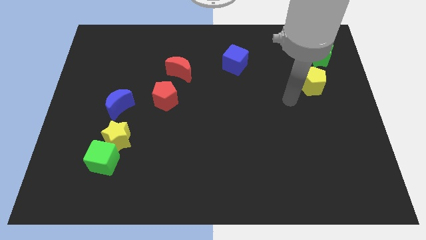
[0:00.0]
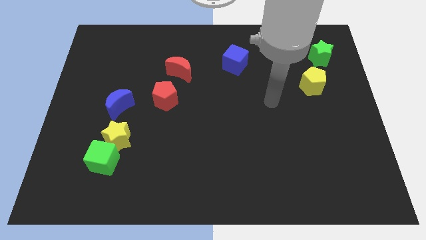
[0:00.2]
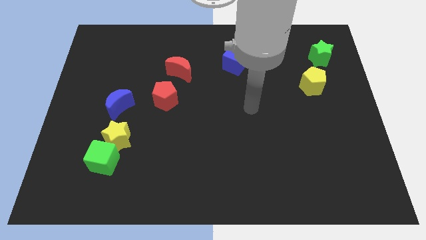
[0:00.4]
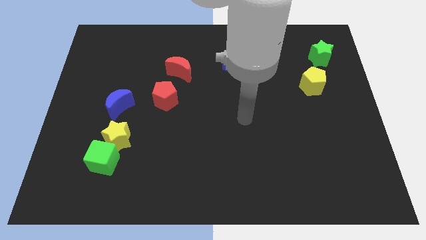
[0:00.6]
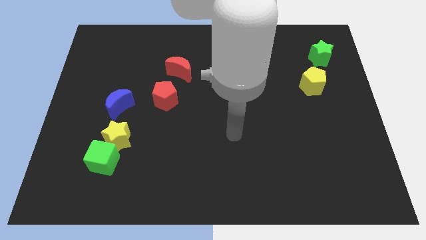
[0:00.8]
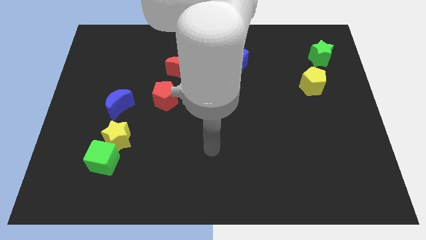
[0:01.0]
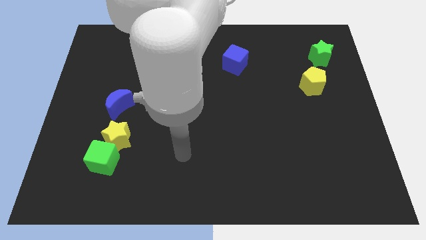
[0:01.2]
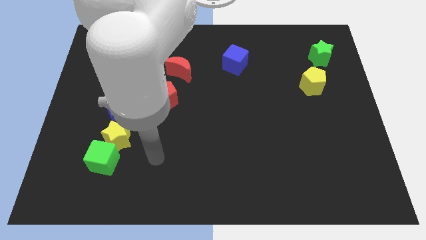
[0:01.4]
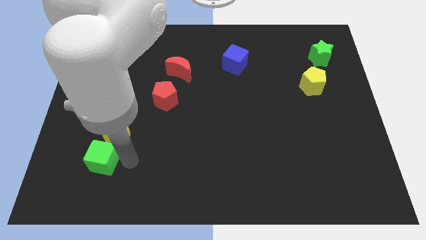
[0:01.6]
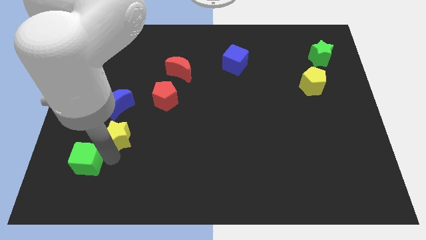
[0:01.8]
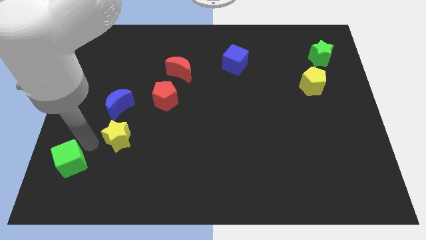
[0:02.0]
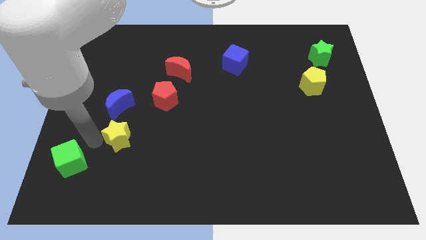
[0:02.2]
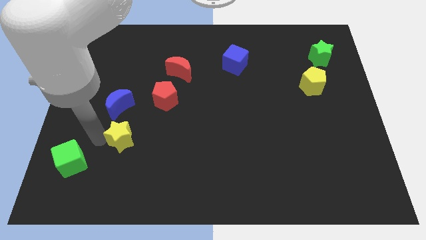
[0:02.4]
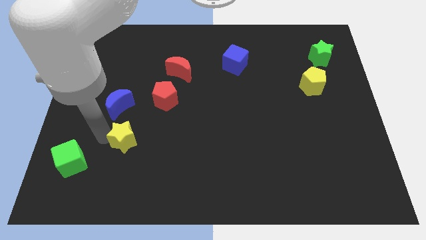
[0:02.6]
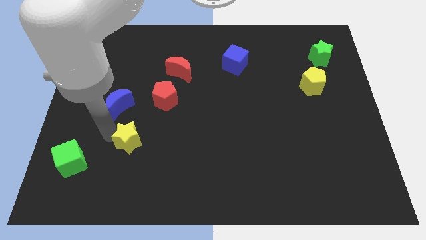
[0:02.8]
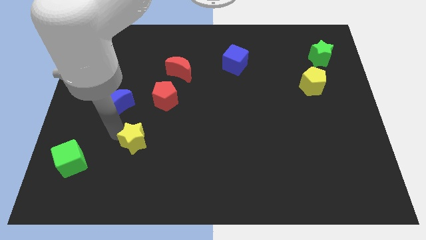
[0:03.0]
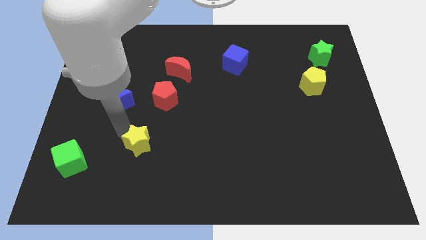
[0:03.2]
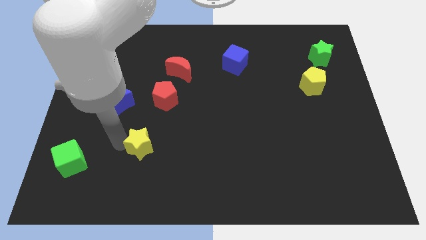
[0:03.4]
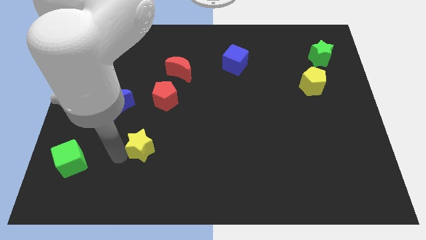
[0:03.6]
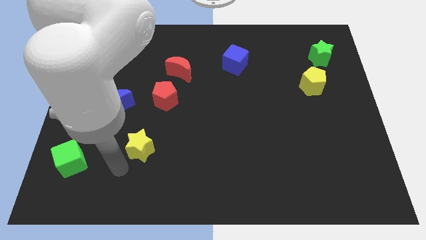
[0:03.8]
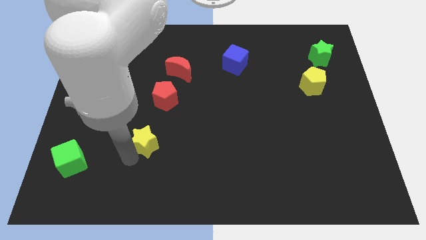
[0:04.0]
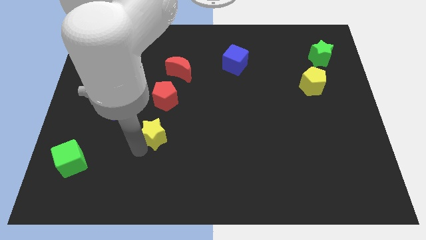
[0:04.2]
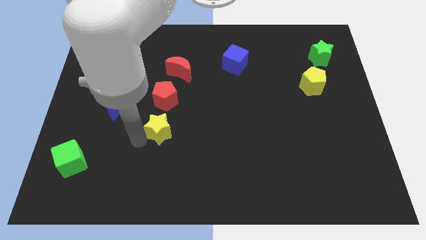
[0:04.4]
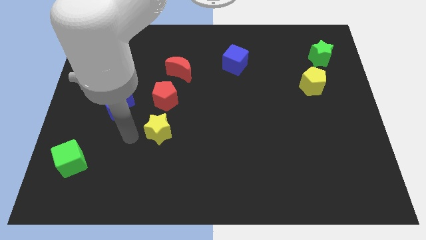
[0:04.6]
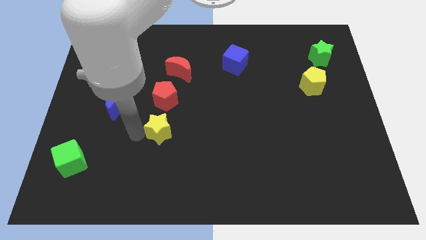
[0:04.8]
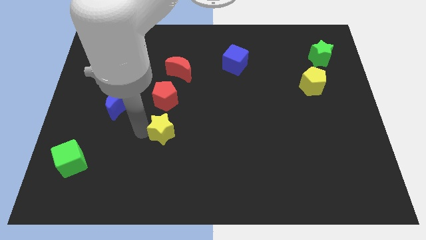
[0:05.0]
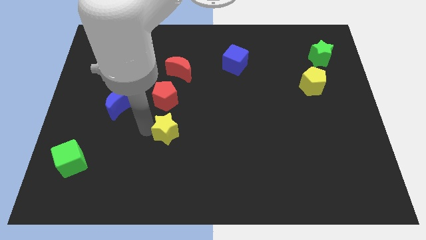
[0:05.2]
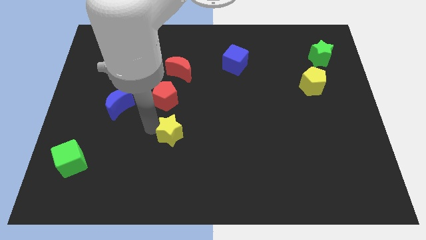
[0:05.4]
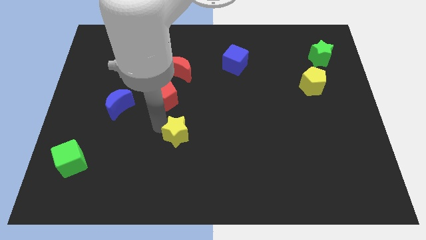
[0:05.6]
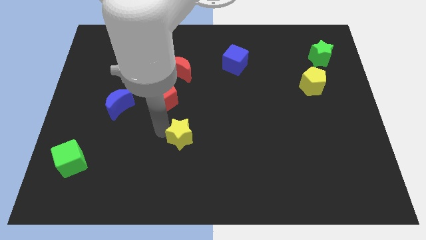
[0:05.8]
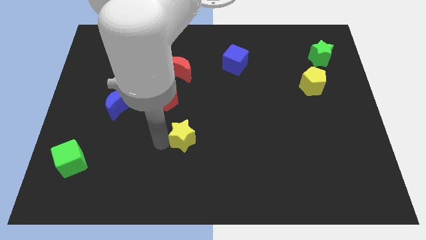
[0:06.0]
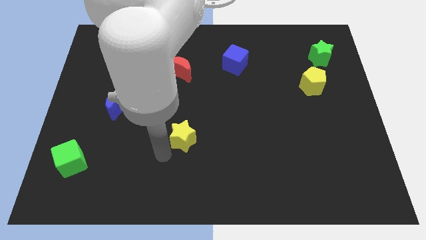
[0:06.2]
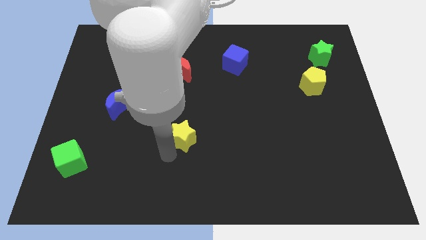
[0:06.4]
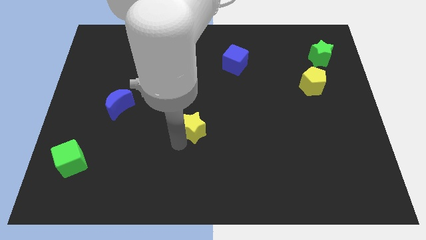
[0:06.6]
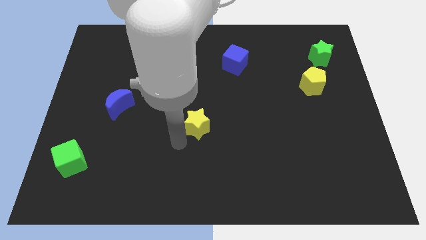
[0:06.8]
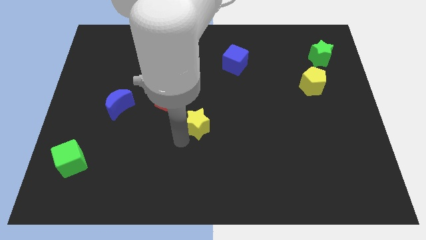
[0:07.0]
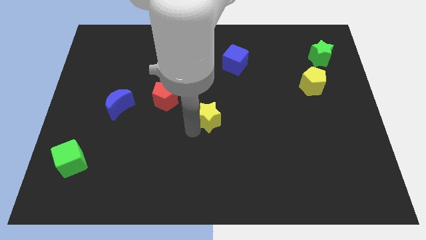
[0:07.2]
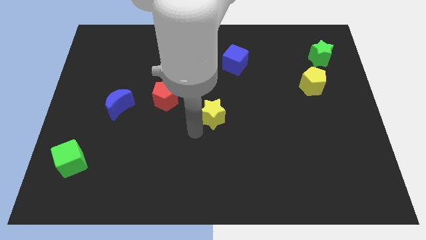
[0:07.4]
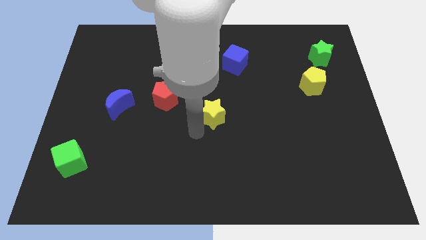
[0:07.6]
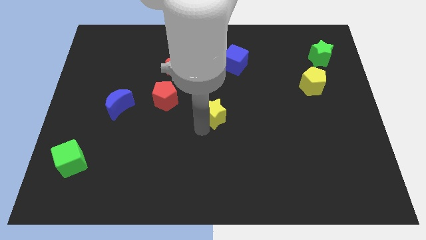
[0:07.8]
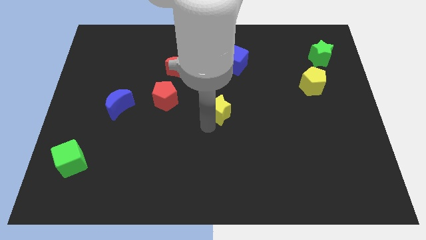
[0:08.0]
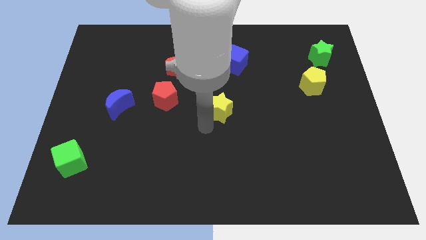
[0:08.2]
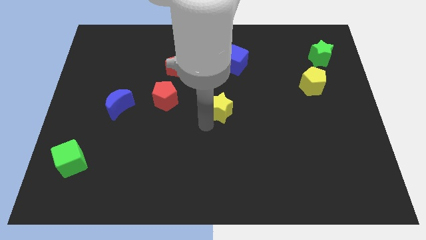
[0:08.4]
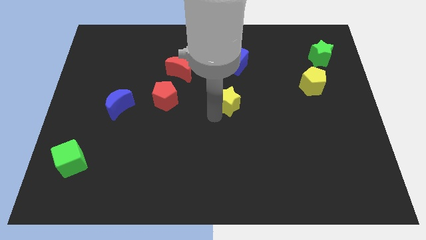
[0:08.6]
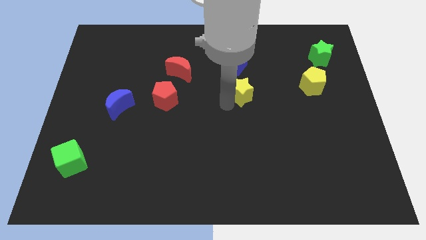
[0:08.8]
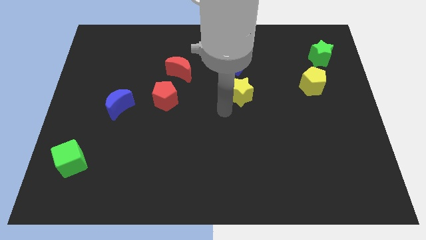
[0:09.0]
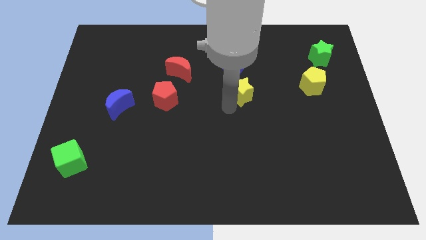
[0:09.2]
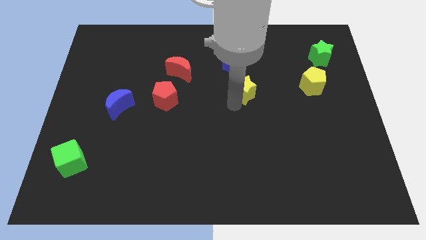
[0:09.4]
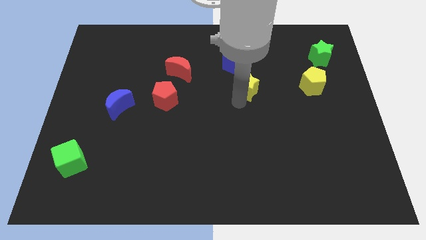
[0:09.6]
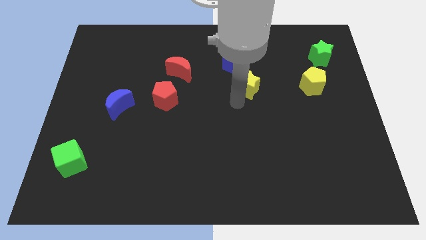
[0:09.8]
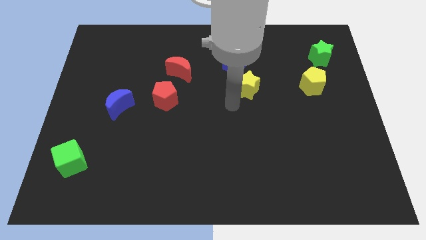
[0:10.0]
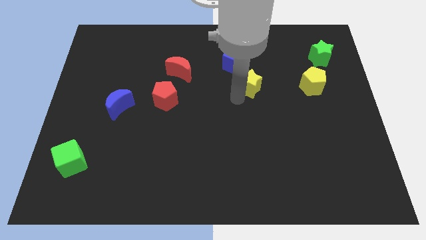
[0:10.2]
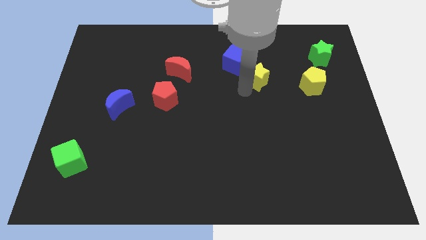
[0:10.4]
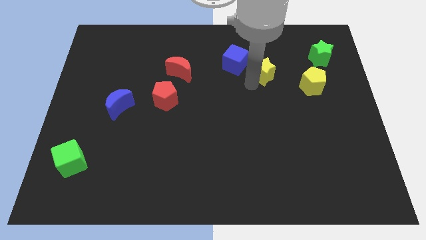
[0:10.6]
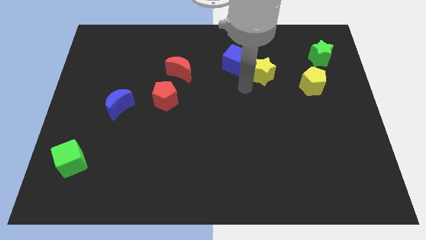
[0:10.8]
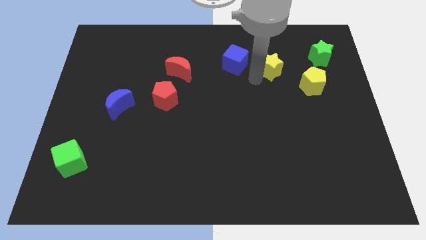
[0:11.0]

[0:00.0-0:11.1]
slide the yellow star to the left side of the green star

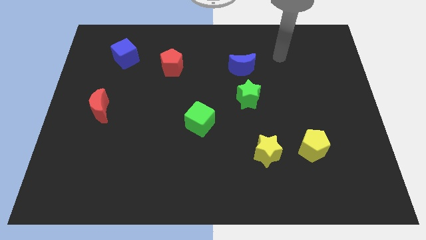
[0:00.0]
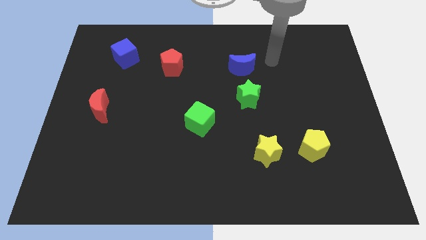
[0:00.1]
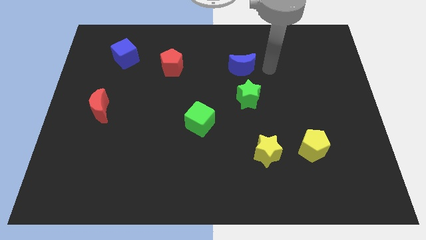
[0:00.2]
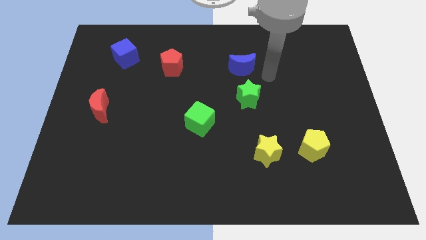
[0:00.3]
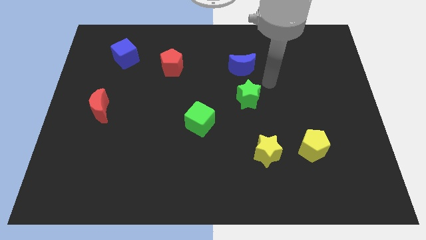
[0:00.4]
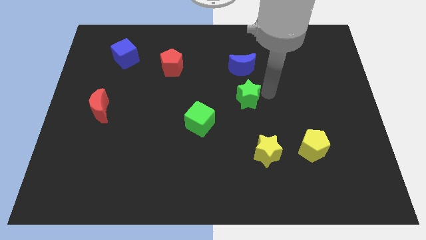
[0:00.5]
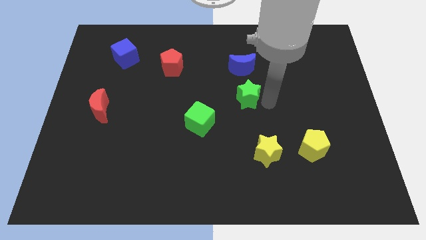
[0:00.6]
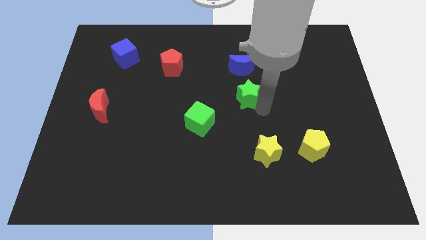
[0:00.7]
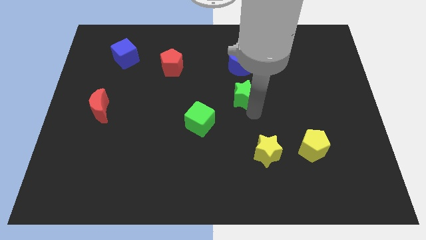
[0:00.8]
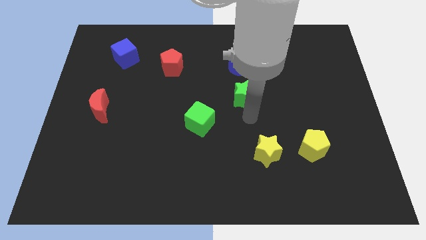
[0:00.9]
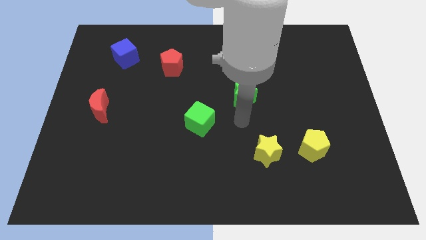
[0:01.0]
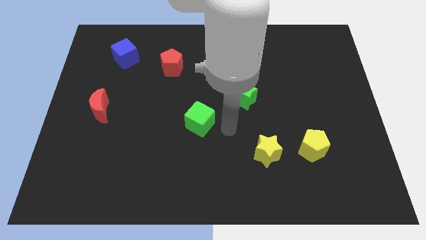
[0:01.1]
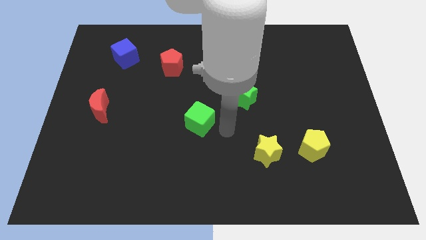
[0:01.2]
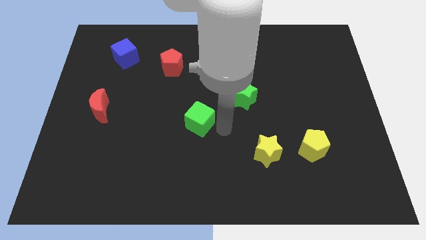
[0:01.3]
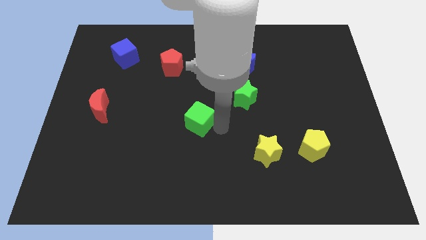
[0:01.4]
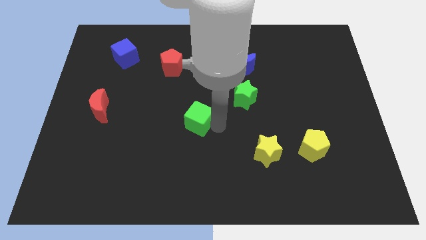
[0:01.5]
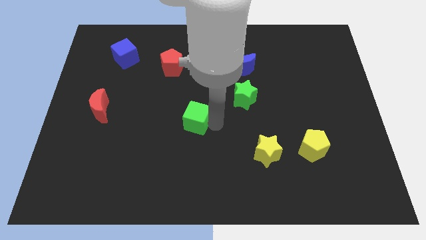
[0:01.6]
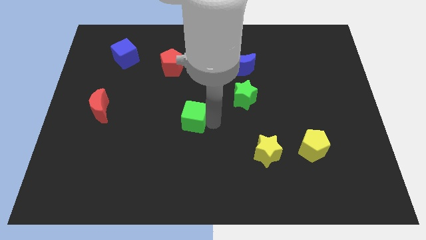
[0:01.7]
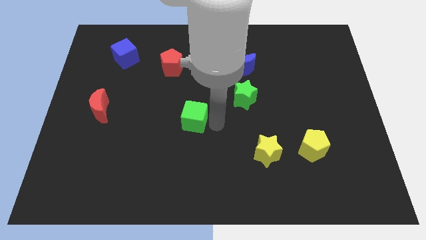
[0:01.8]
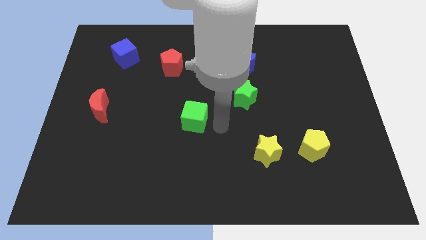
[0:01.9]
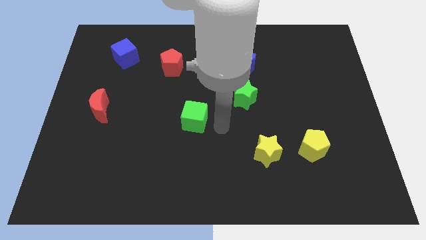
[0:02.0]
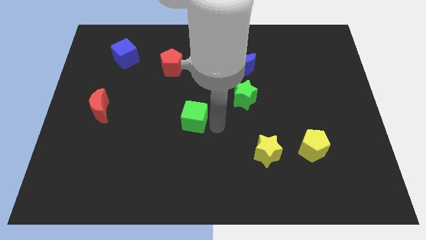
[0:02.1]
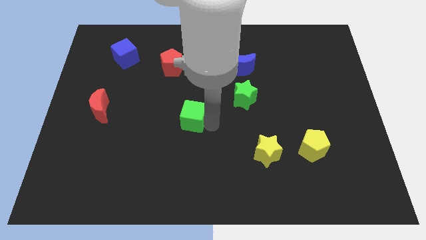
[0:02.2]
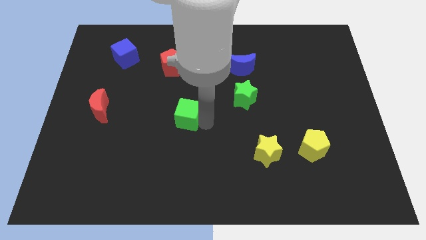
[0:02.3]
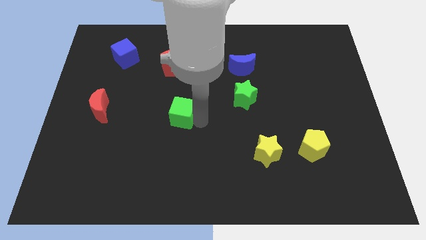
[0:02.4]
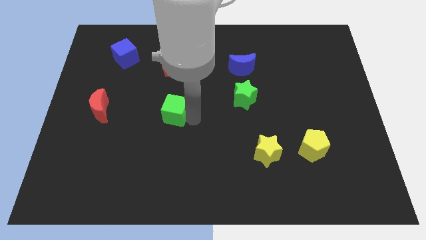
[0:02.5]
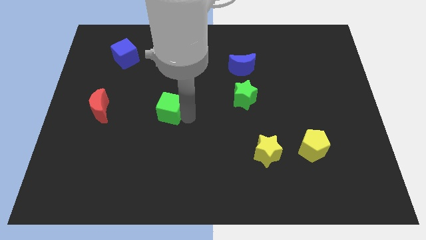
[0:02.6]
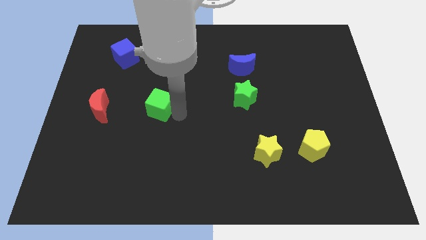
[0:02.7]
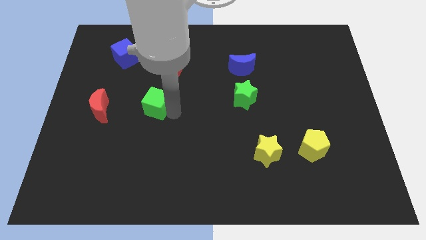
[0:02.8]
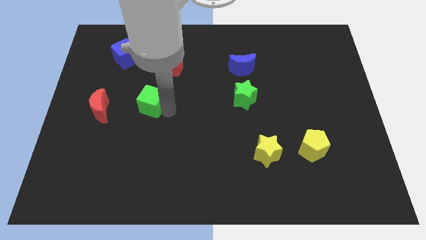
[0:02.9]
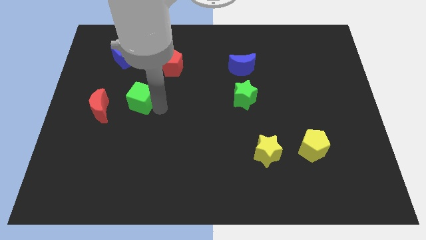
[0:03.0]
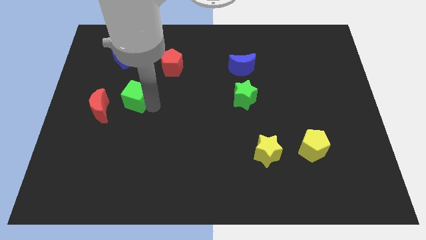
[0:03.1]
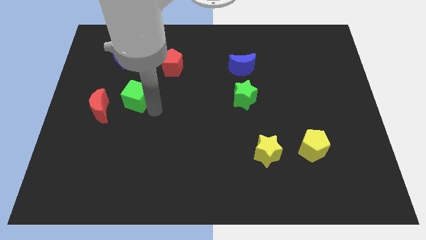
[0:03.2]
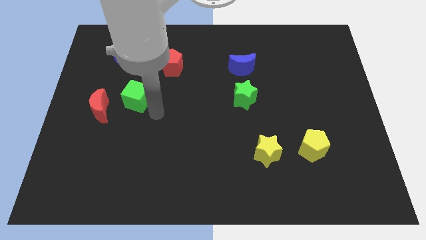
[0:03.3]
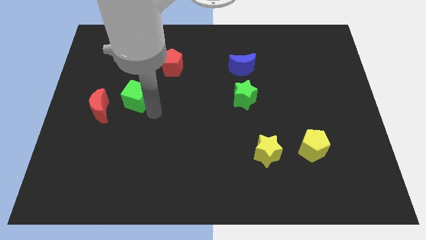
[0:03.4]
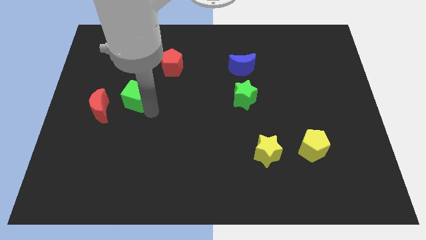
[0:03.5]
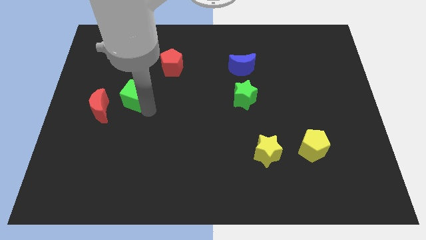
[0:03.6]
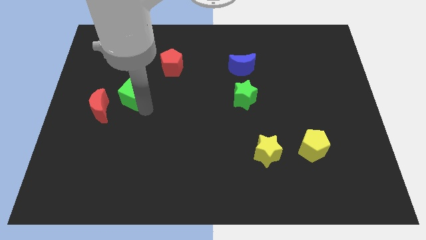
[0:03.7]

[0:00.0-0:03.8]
move the green cube below the blue cube
